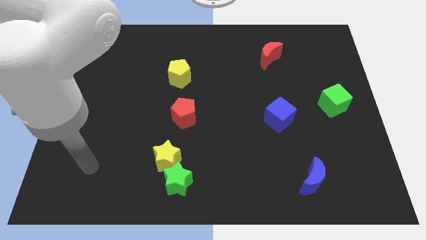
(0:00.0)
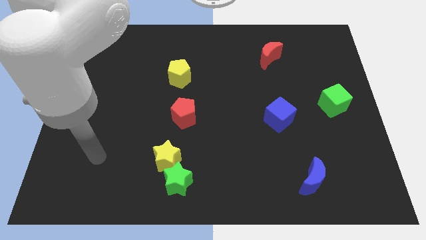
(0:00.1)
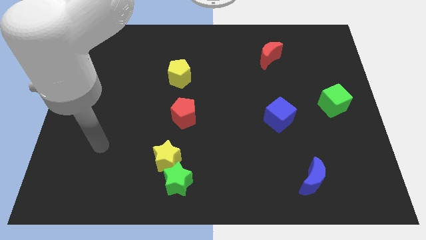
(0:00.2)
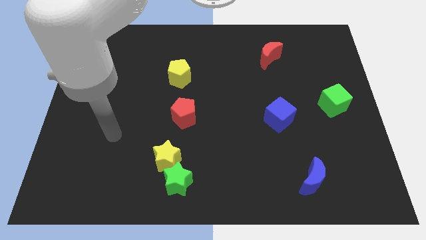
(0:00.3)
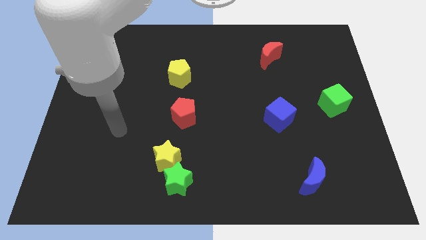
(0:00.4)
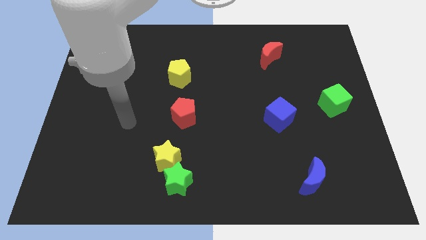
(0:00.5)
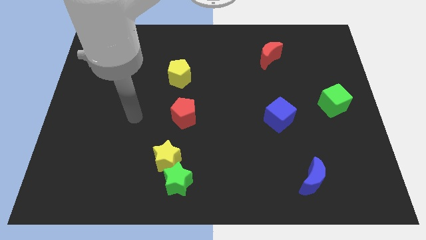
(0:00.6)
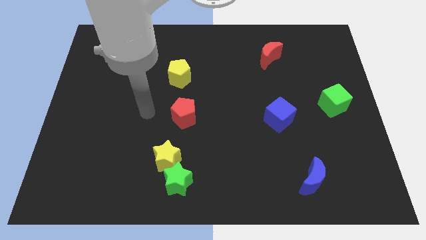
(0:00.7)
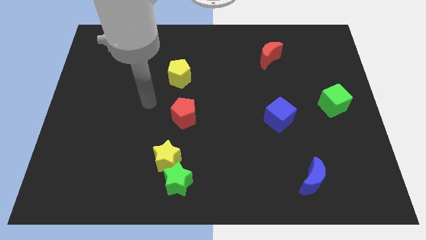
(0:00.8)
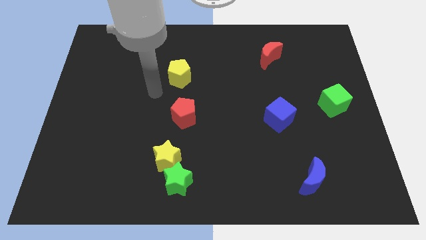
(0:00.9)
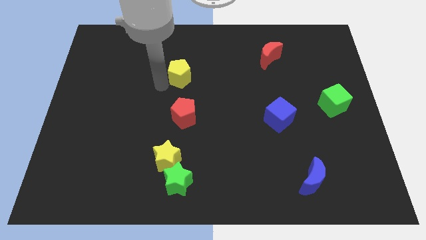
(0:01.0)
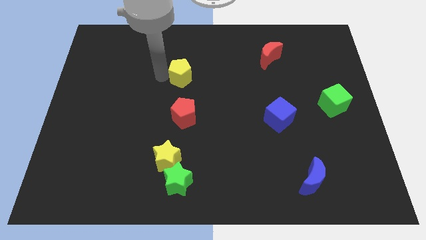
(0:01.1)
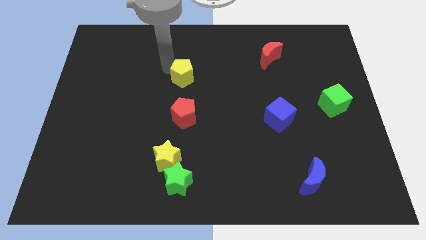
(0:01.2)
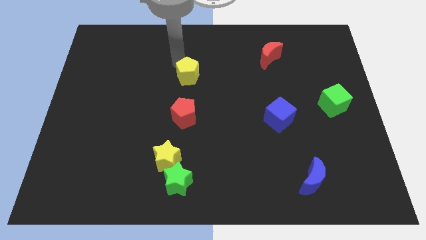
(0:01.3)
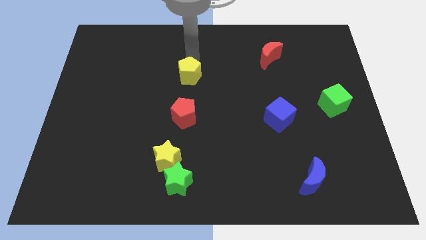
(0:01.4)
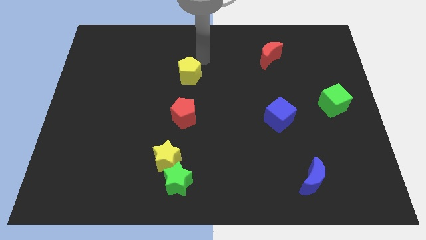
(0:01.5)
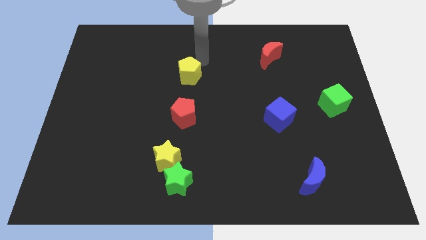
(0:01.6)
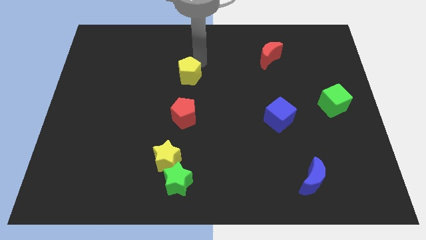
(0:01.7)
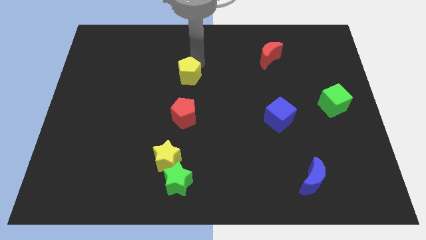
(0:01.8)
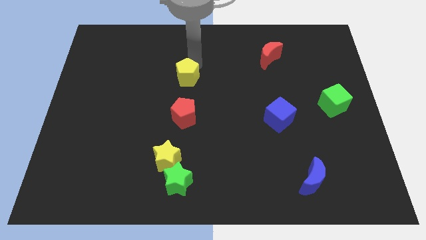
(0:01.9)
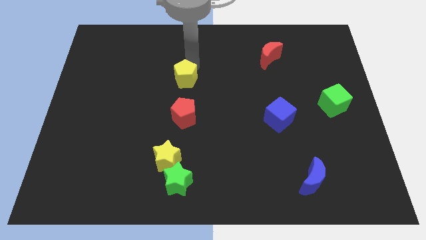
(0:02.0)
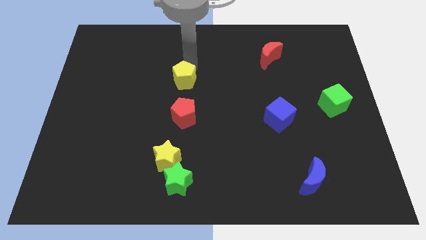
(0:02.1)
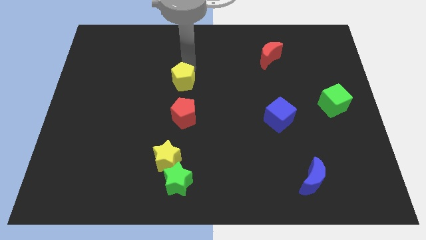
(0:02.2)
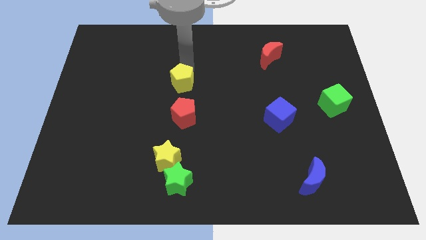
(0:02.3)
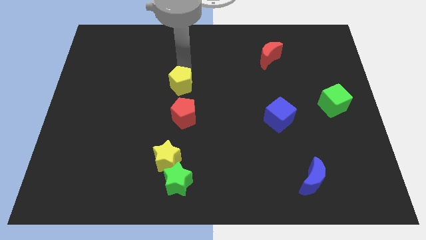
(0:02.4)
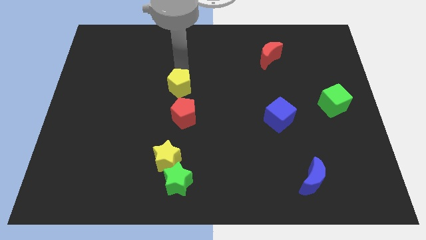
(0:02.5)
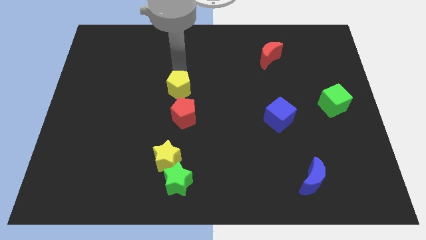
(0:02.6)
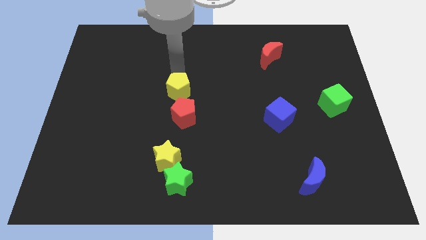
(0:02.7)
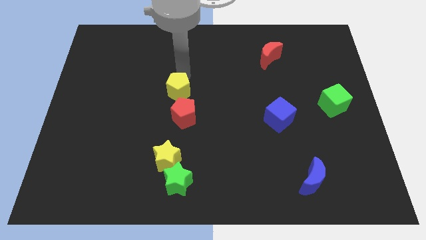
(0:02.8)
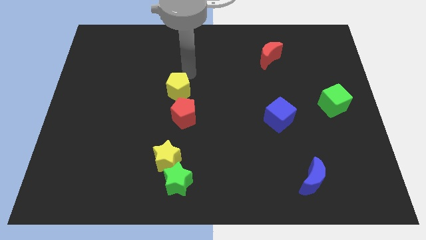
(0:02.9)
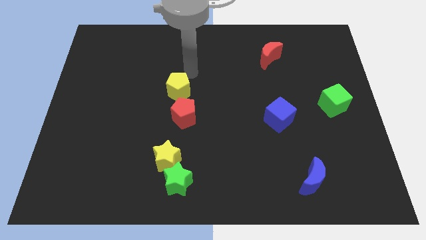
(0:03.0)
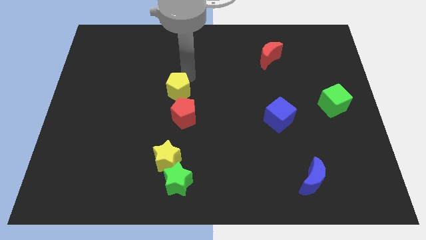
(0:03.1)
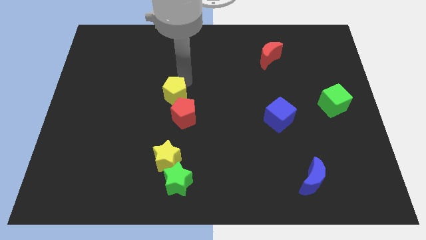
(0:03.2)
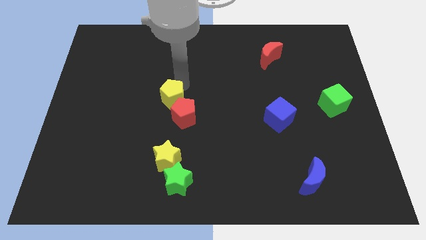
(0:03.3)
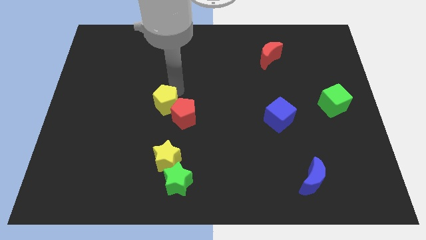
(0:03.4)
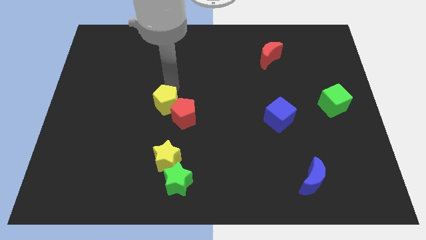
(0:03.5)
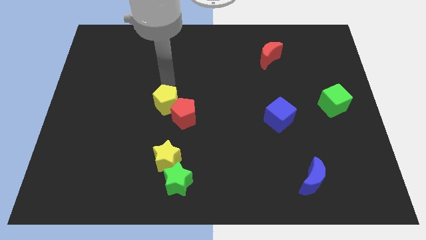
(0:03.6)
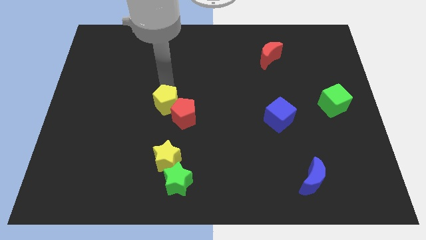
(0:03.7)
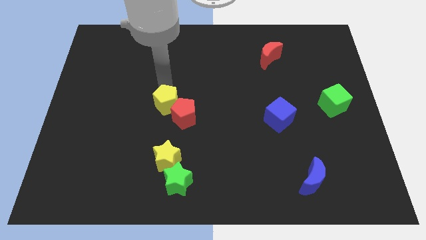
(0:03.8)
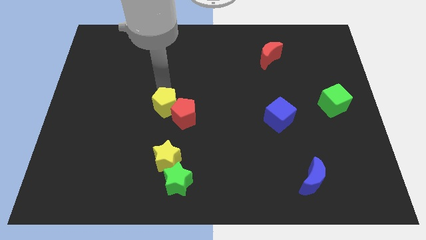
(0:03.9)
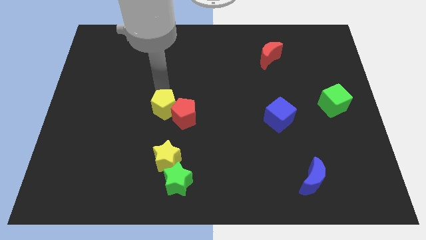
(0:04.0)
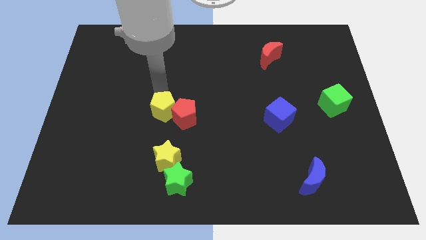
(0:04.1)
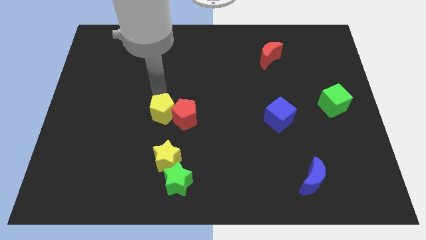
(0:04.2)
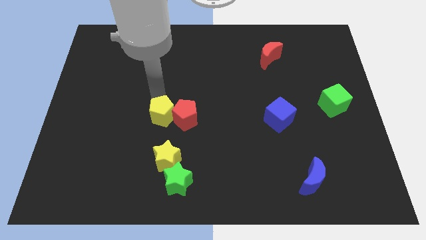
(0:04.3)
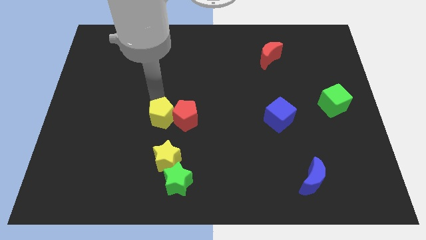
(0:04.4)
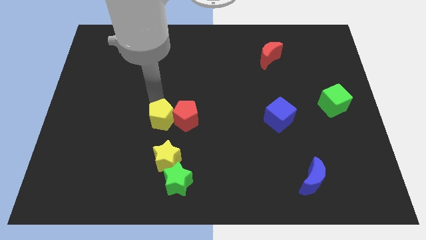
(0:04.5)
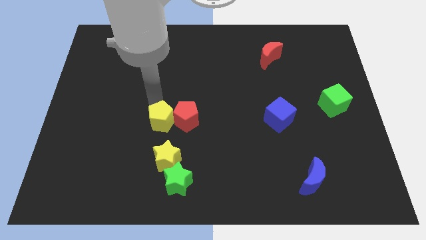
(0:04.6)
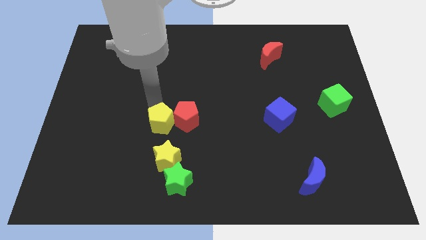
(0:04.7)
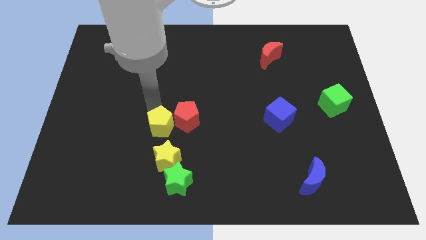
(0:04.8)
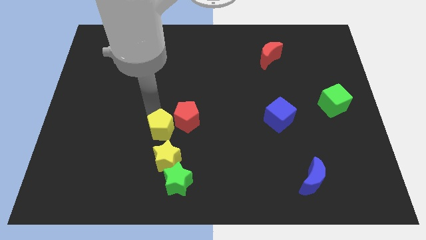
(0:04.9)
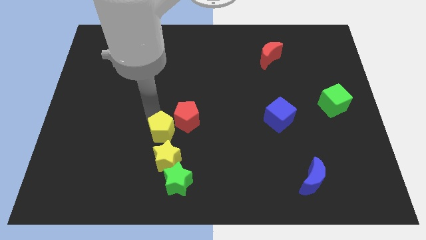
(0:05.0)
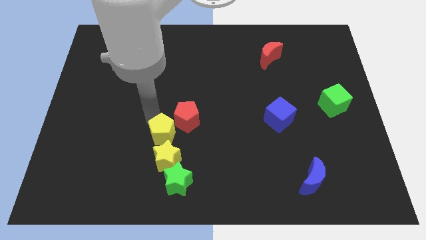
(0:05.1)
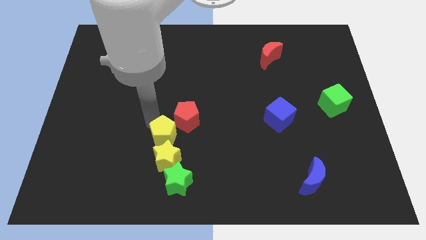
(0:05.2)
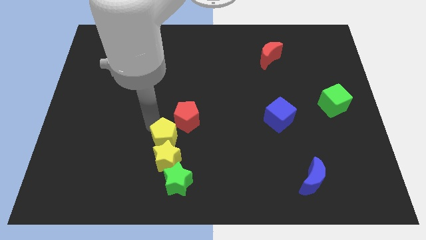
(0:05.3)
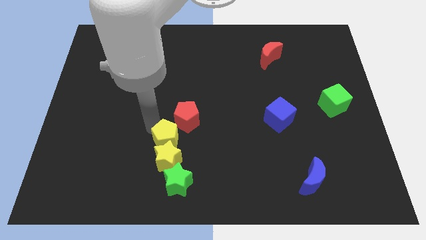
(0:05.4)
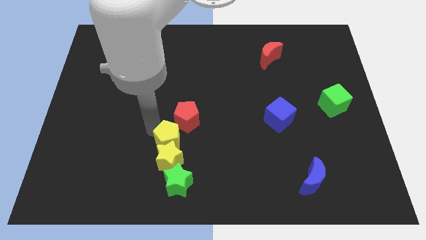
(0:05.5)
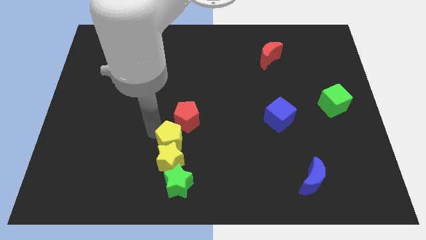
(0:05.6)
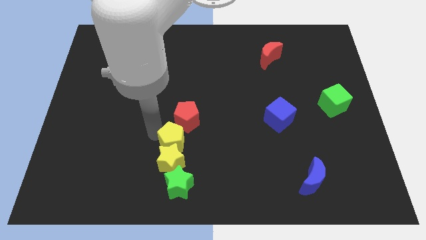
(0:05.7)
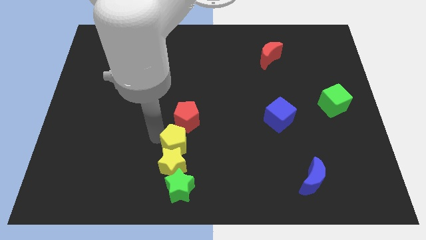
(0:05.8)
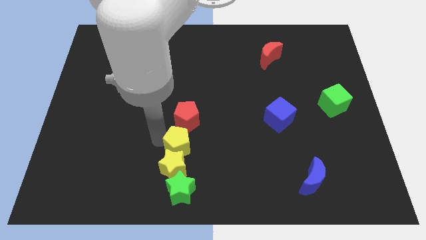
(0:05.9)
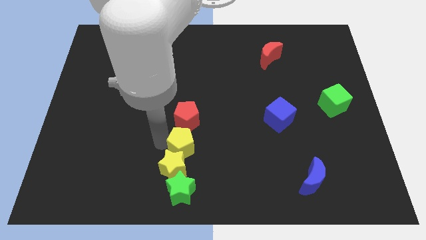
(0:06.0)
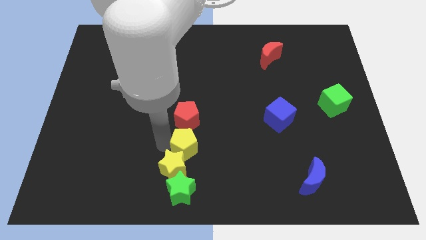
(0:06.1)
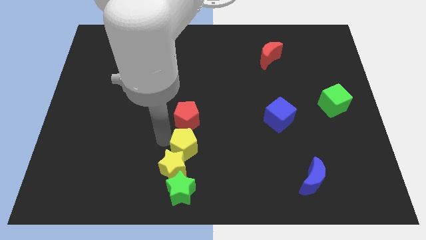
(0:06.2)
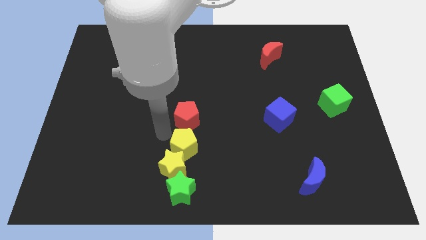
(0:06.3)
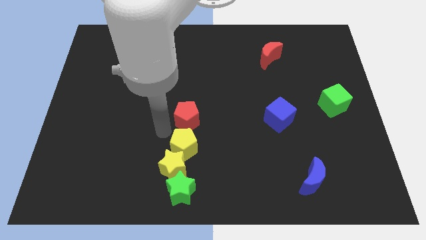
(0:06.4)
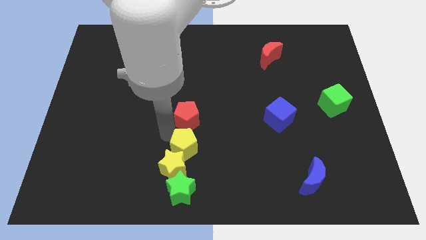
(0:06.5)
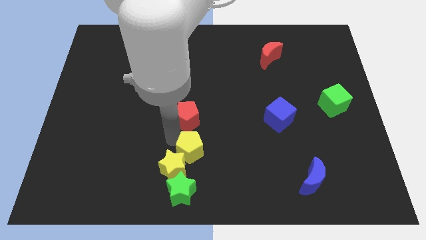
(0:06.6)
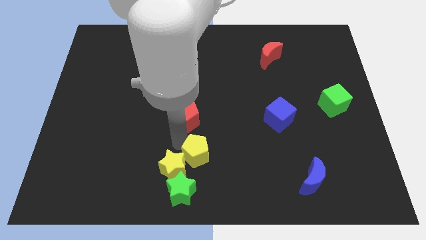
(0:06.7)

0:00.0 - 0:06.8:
push the yellow pentagon to the bottom side
